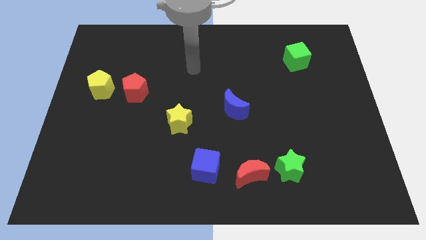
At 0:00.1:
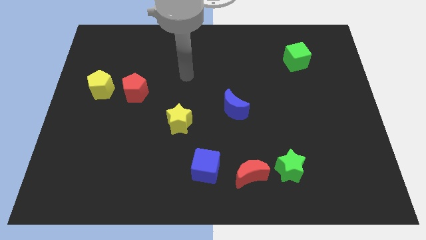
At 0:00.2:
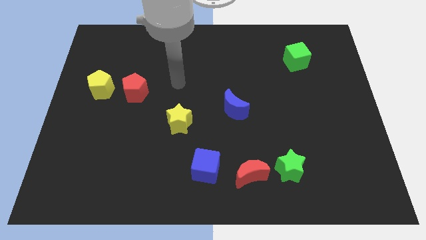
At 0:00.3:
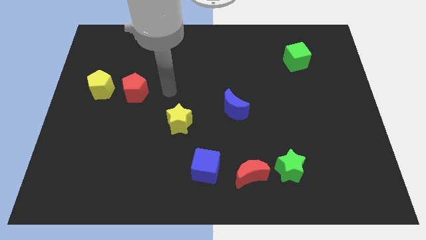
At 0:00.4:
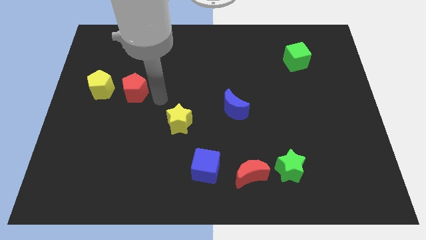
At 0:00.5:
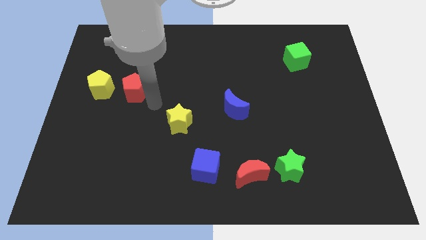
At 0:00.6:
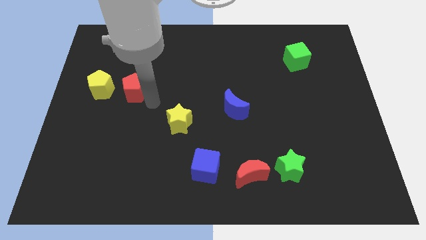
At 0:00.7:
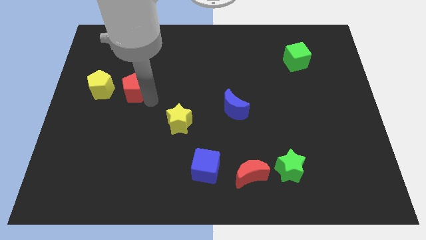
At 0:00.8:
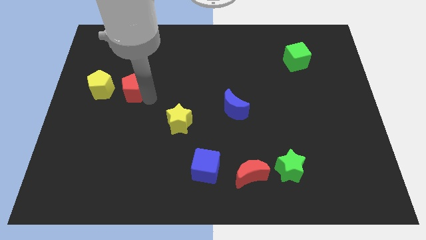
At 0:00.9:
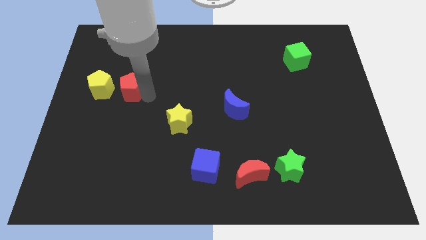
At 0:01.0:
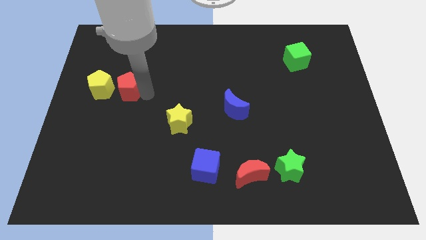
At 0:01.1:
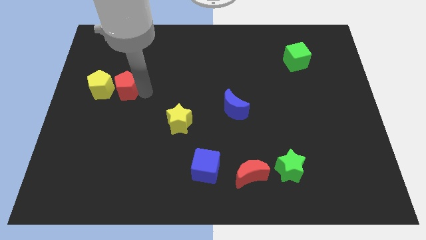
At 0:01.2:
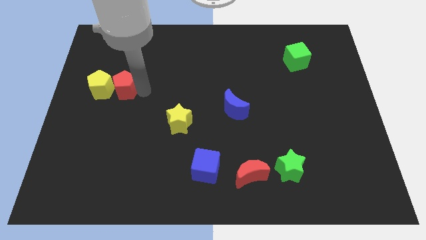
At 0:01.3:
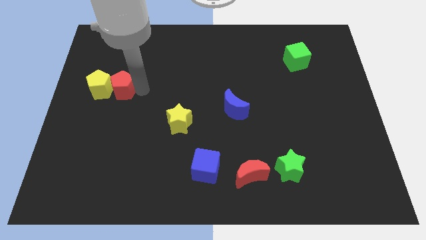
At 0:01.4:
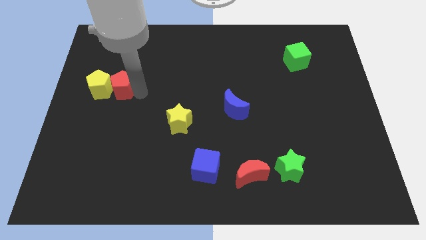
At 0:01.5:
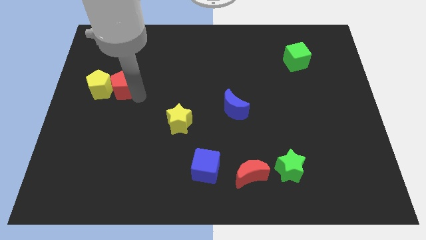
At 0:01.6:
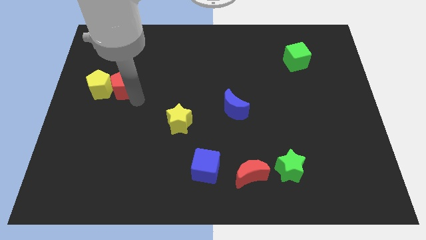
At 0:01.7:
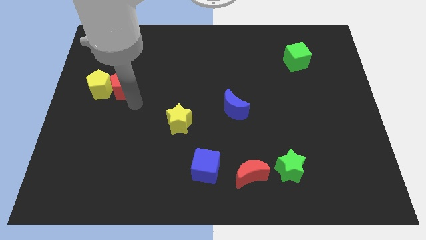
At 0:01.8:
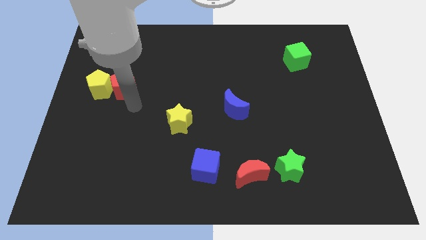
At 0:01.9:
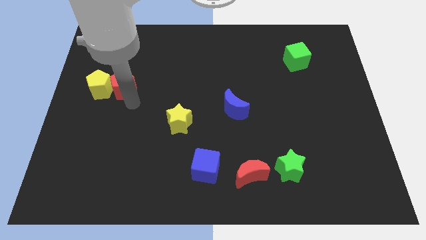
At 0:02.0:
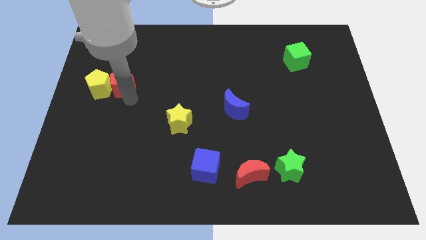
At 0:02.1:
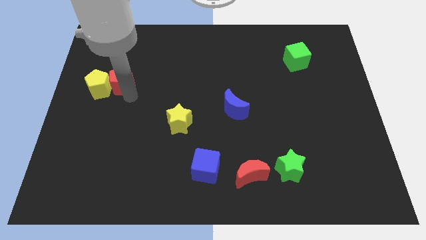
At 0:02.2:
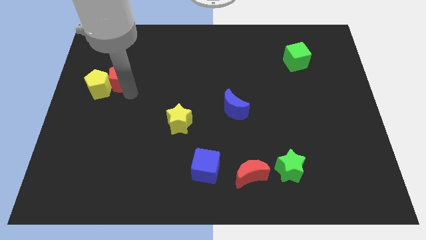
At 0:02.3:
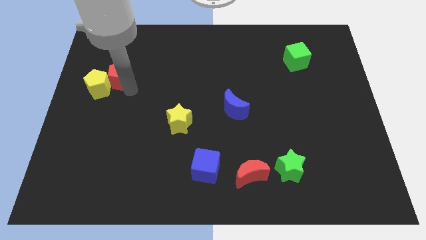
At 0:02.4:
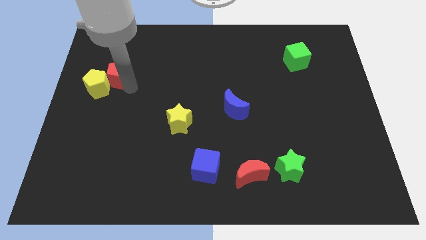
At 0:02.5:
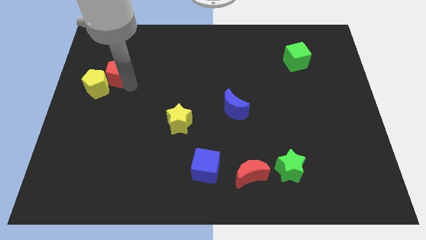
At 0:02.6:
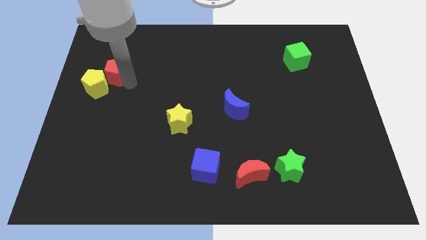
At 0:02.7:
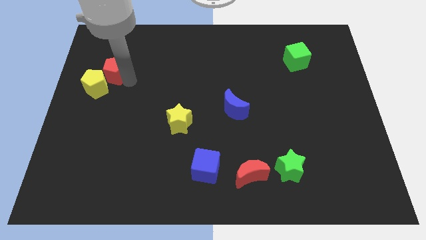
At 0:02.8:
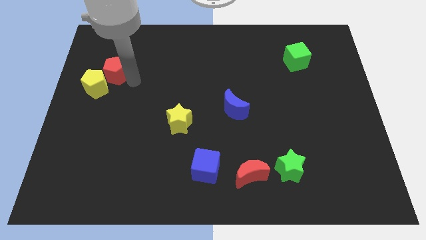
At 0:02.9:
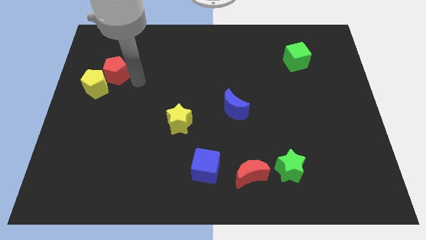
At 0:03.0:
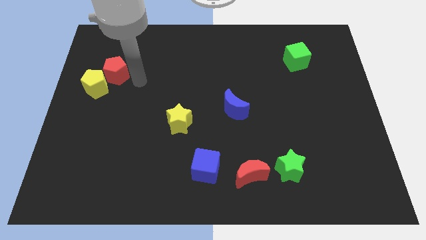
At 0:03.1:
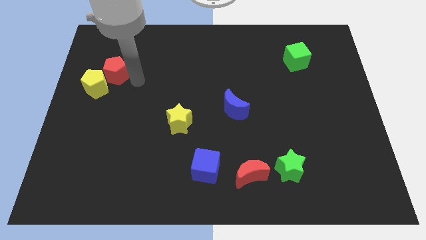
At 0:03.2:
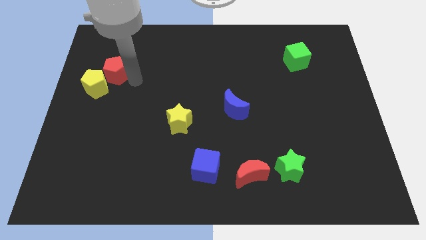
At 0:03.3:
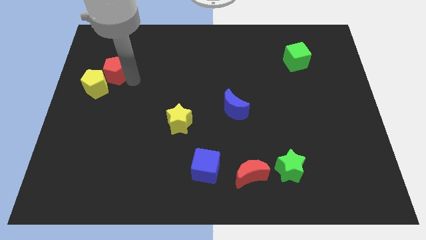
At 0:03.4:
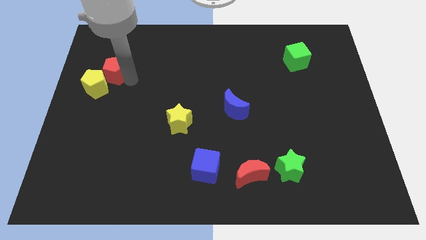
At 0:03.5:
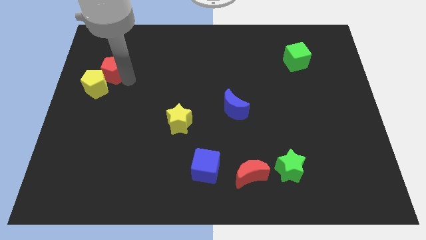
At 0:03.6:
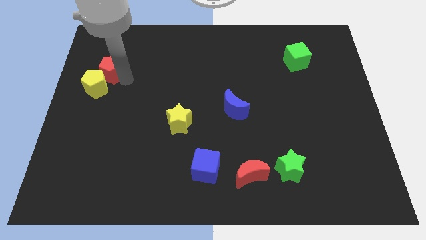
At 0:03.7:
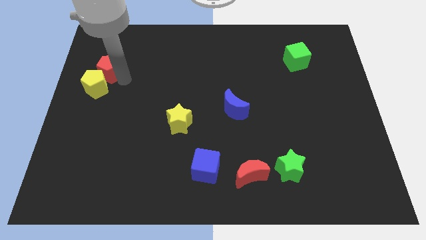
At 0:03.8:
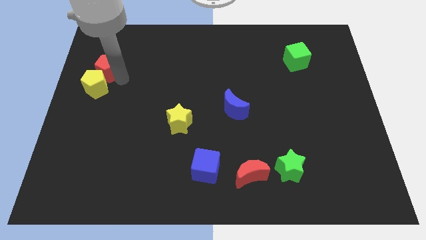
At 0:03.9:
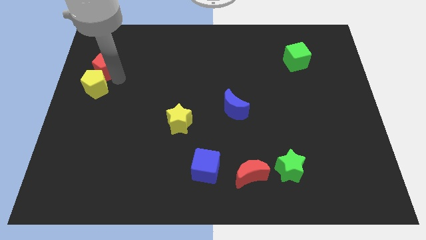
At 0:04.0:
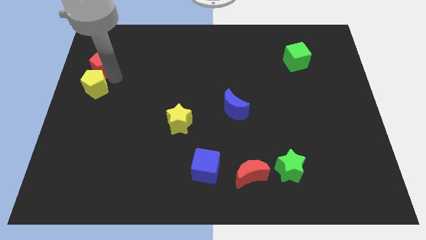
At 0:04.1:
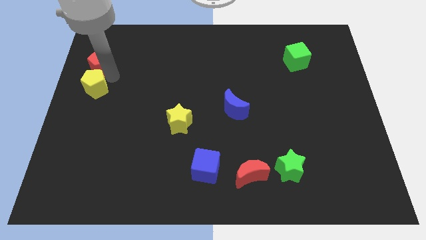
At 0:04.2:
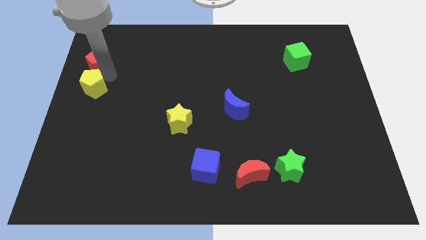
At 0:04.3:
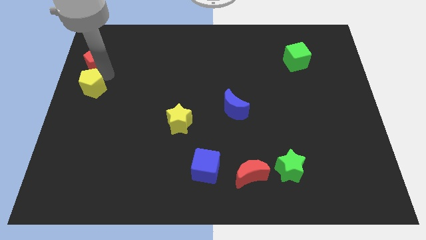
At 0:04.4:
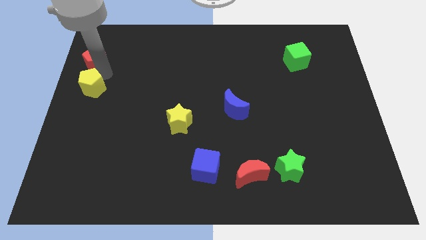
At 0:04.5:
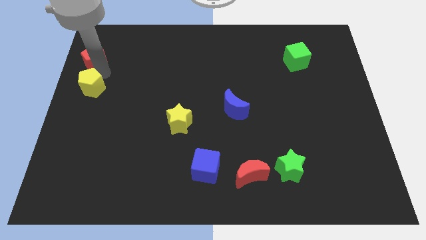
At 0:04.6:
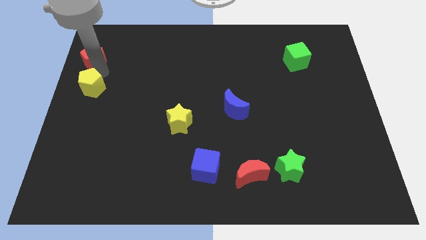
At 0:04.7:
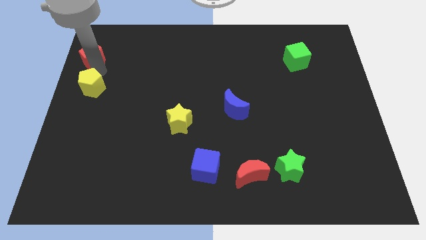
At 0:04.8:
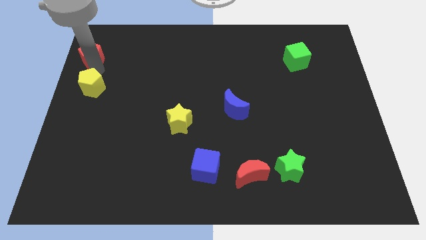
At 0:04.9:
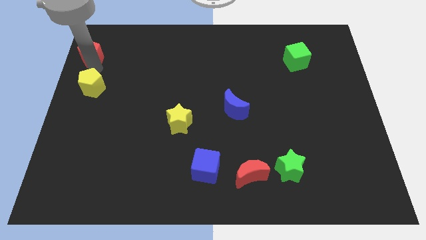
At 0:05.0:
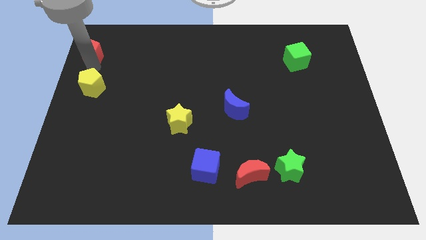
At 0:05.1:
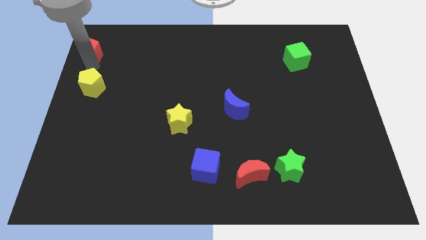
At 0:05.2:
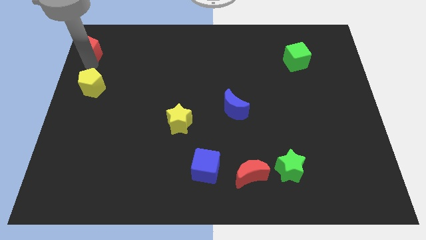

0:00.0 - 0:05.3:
move the red pentagon to the top left of the board

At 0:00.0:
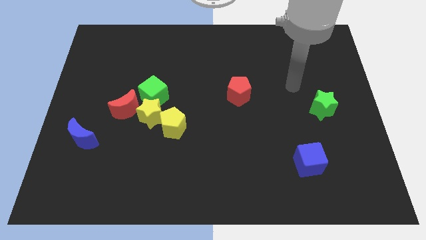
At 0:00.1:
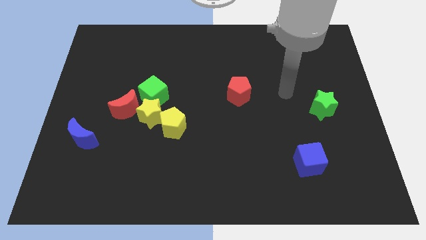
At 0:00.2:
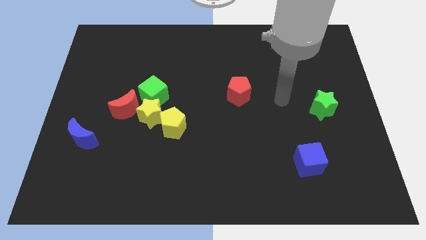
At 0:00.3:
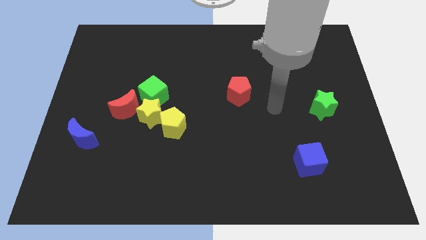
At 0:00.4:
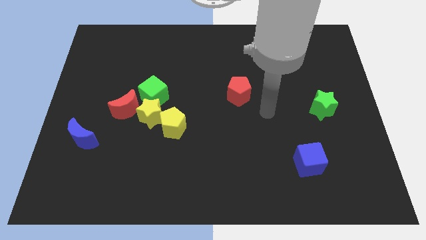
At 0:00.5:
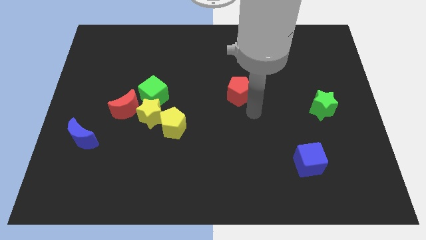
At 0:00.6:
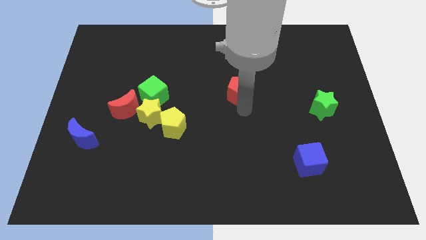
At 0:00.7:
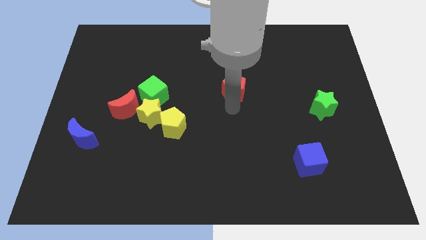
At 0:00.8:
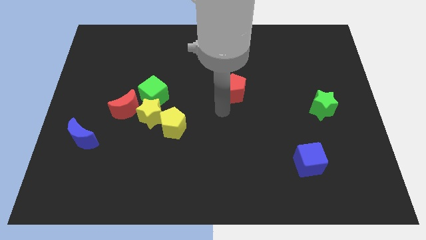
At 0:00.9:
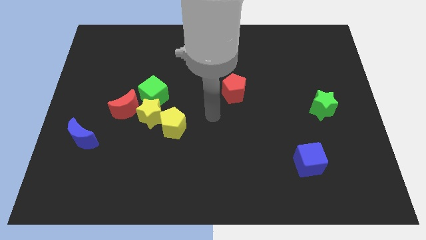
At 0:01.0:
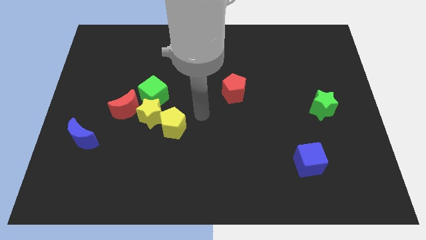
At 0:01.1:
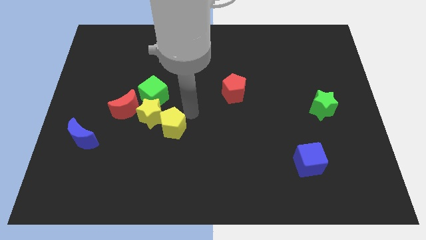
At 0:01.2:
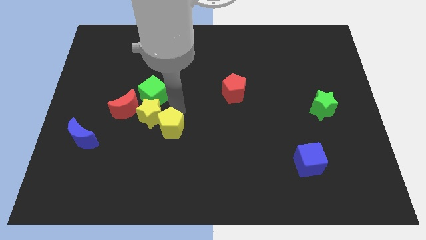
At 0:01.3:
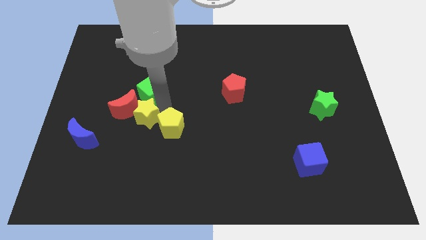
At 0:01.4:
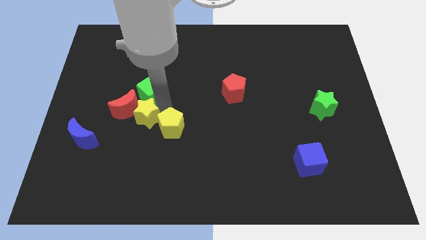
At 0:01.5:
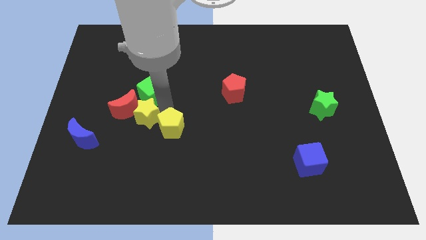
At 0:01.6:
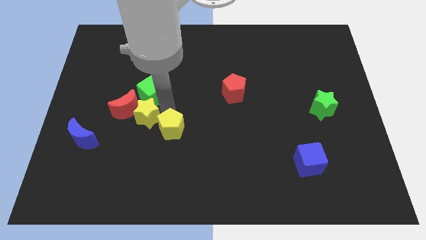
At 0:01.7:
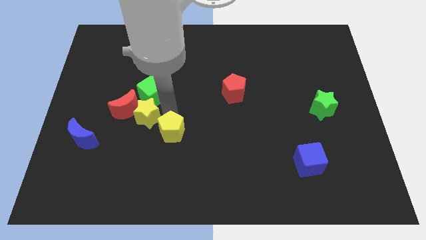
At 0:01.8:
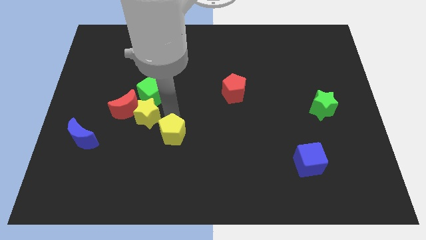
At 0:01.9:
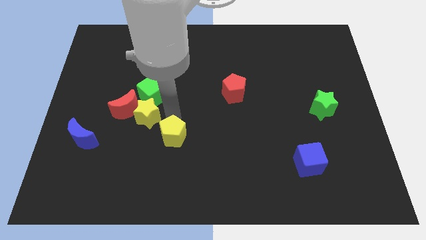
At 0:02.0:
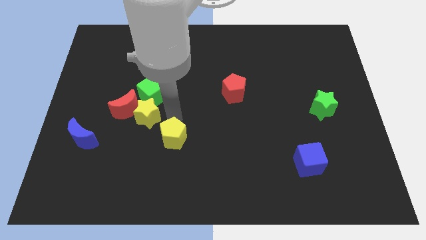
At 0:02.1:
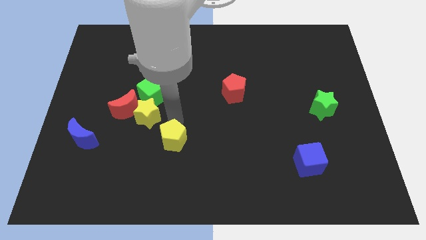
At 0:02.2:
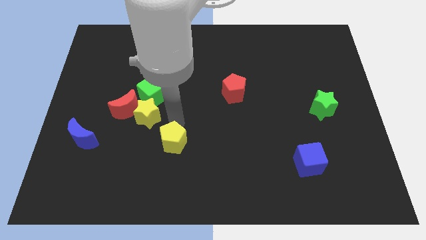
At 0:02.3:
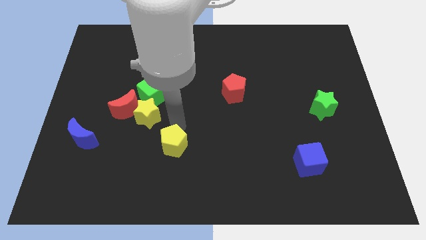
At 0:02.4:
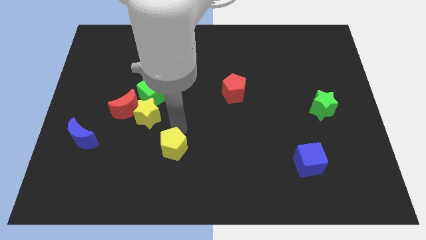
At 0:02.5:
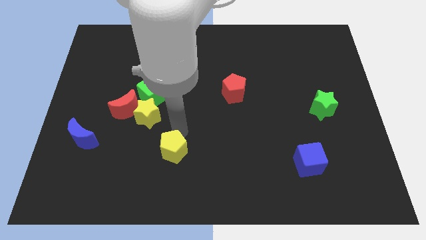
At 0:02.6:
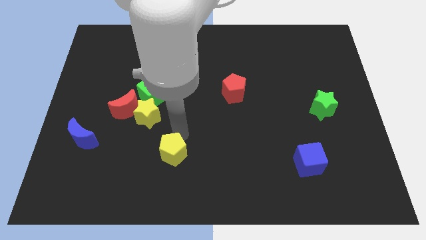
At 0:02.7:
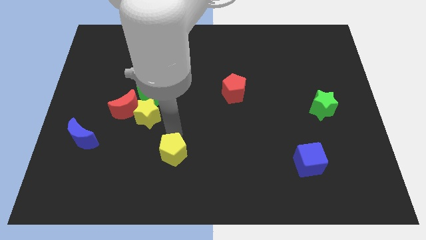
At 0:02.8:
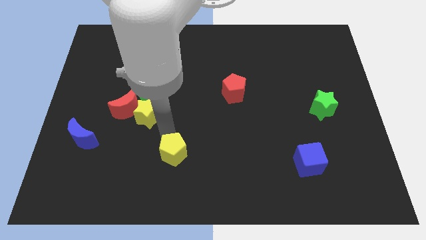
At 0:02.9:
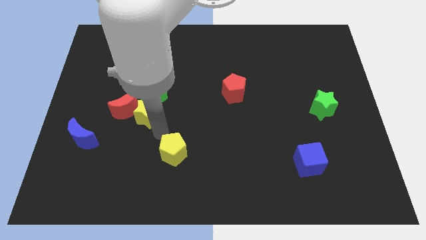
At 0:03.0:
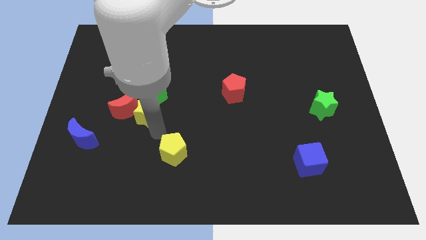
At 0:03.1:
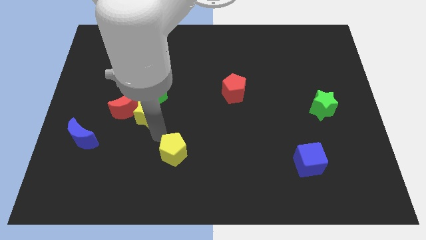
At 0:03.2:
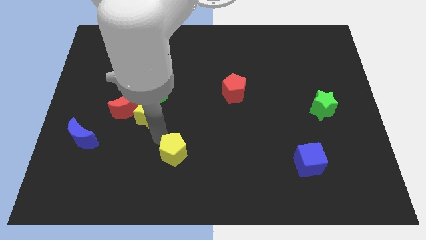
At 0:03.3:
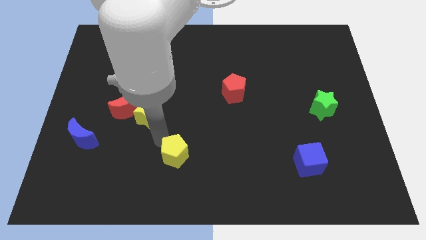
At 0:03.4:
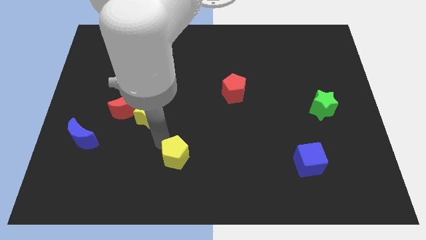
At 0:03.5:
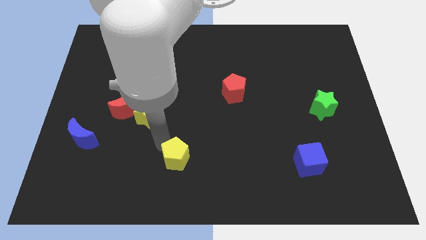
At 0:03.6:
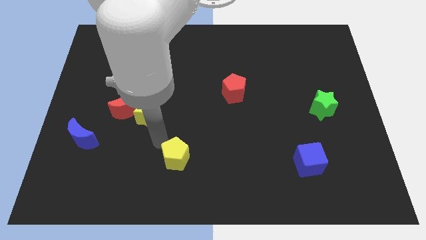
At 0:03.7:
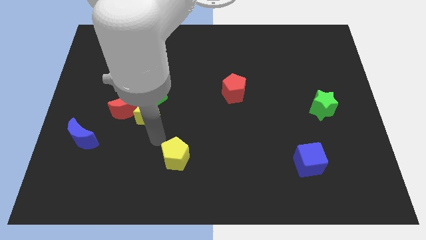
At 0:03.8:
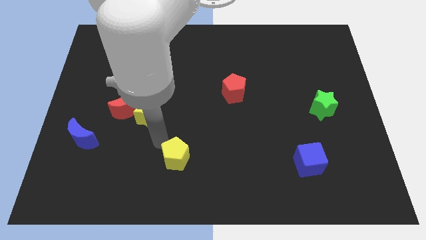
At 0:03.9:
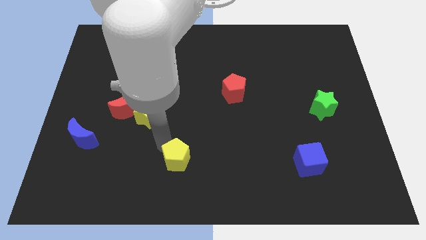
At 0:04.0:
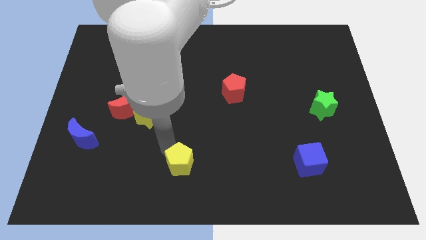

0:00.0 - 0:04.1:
slide the yellow pentagon to the bottom side
